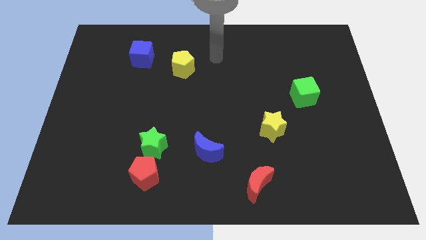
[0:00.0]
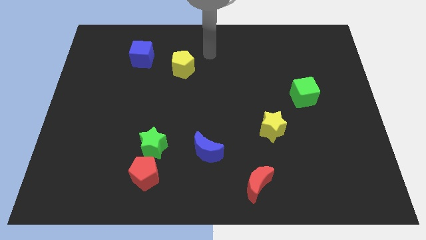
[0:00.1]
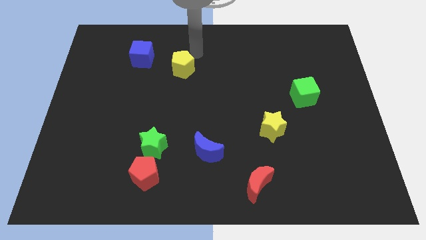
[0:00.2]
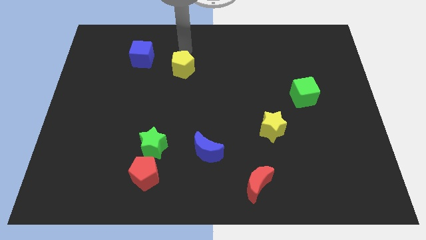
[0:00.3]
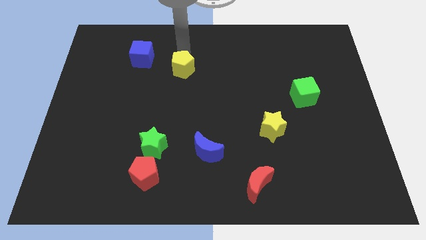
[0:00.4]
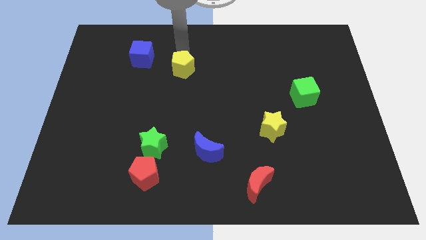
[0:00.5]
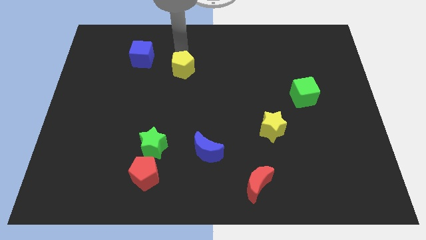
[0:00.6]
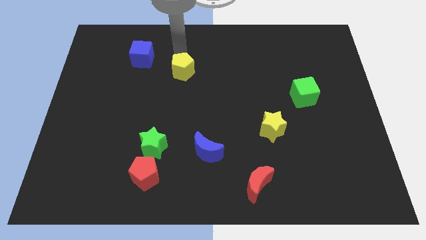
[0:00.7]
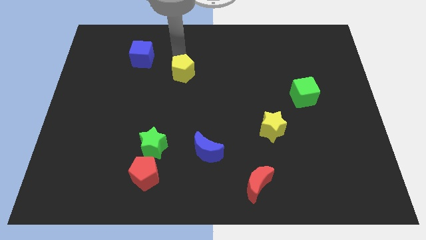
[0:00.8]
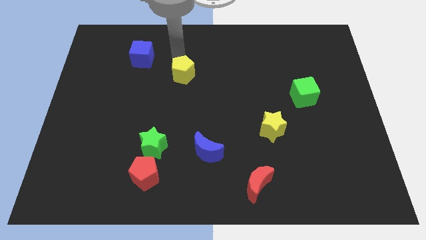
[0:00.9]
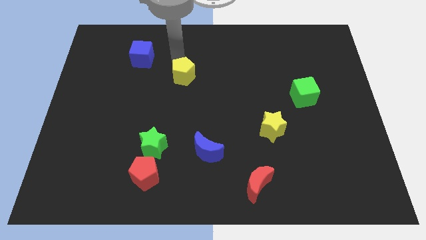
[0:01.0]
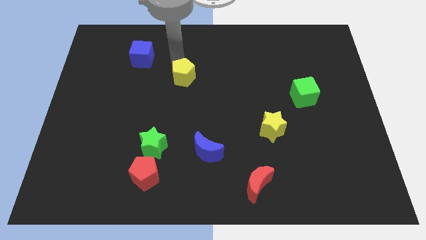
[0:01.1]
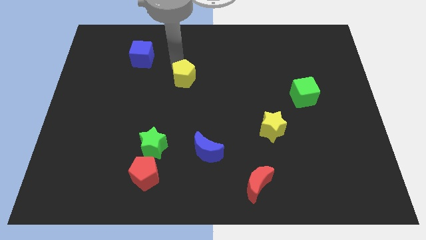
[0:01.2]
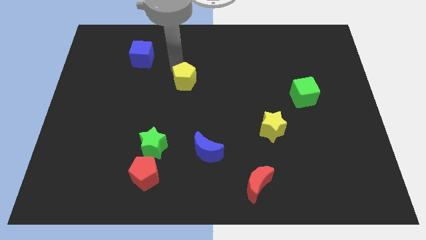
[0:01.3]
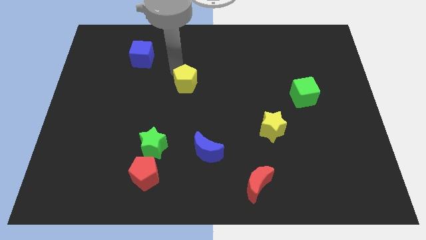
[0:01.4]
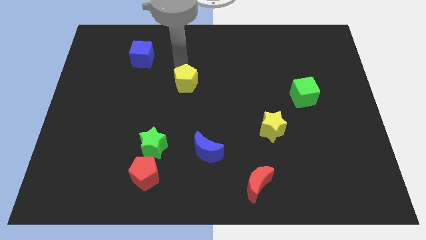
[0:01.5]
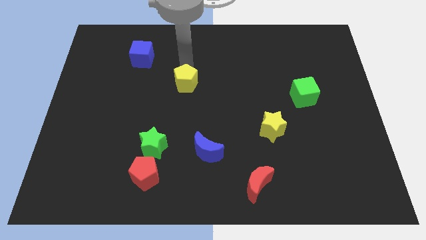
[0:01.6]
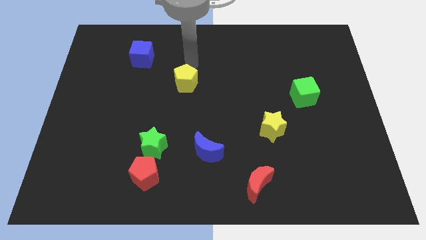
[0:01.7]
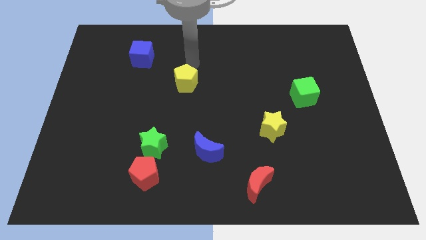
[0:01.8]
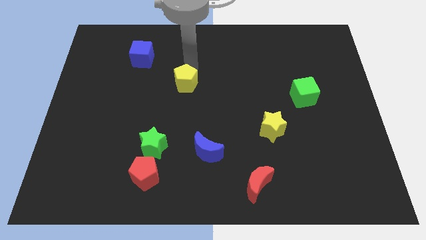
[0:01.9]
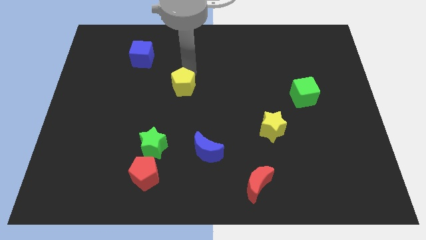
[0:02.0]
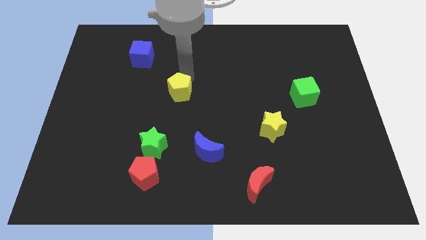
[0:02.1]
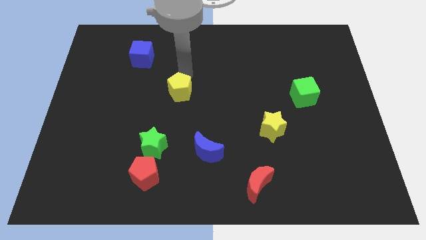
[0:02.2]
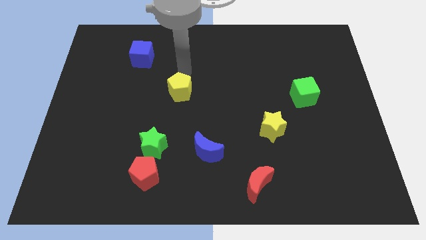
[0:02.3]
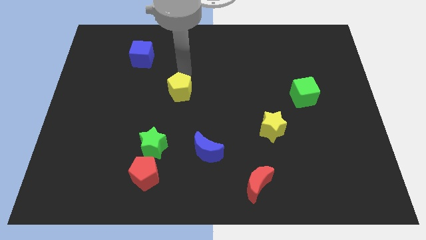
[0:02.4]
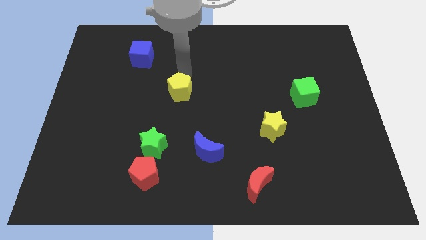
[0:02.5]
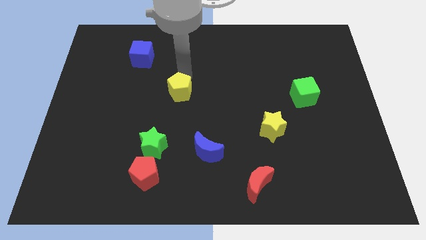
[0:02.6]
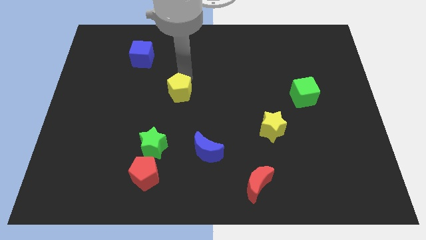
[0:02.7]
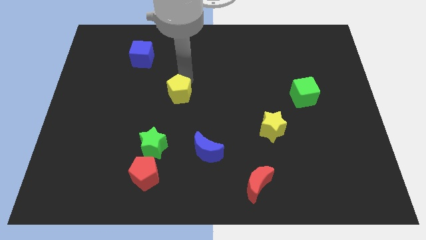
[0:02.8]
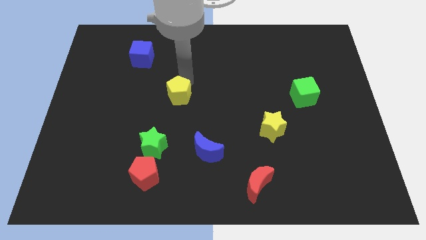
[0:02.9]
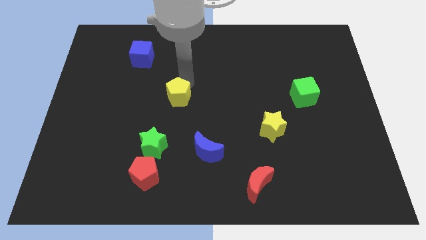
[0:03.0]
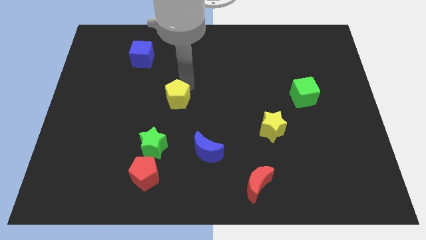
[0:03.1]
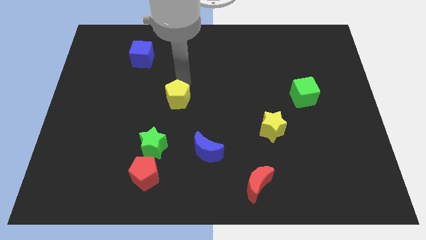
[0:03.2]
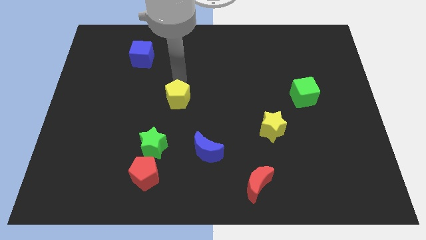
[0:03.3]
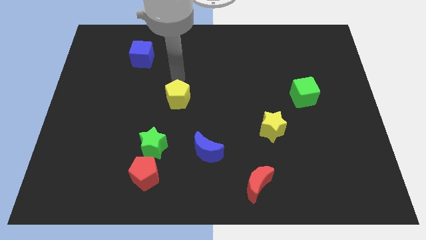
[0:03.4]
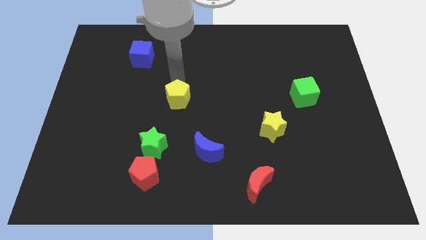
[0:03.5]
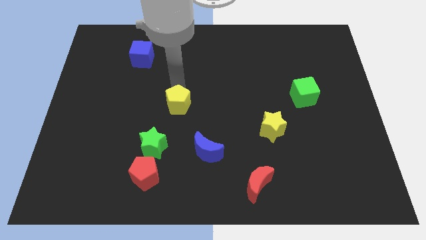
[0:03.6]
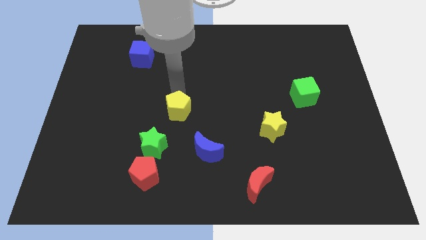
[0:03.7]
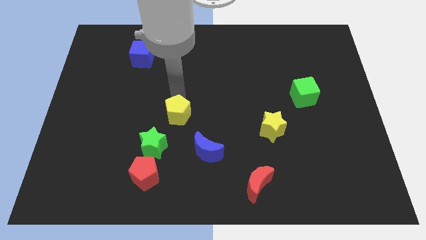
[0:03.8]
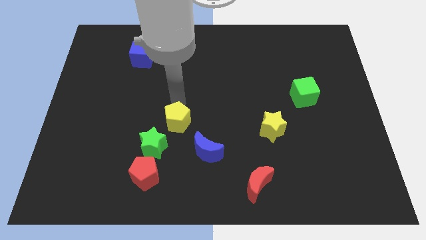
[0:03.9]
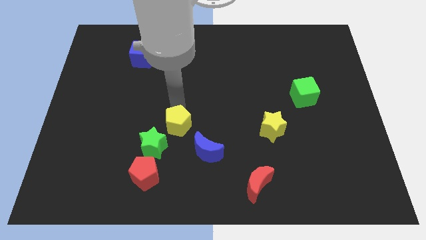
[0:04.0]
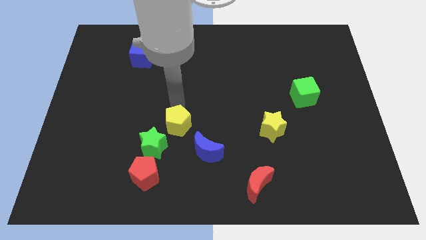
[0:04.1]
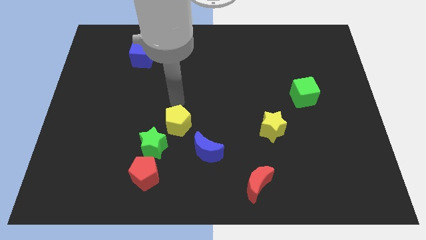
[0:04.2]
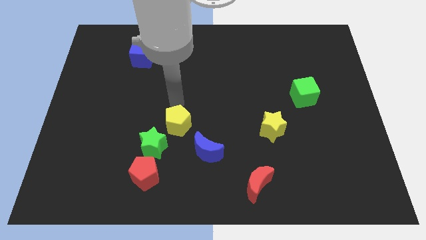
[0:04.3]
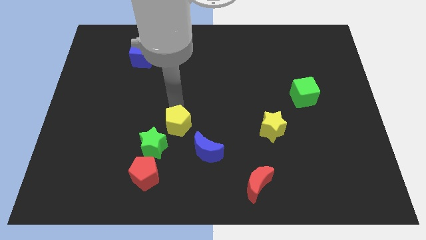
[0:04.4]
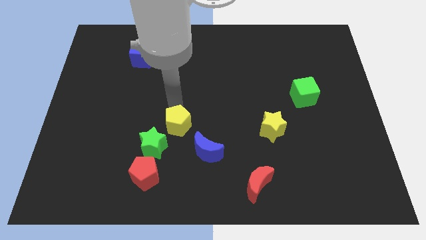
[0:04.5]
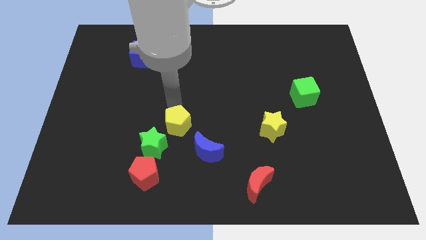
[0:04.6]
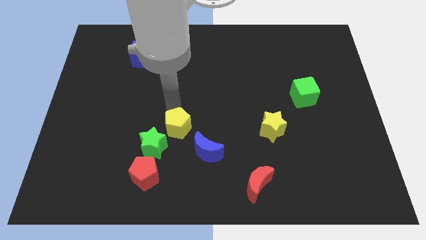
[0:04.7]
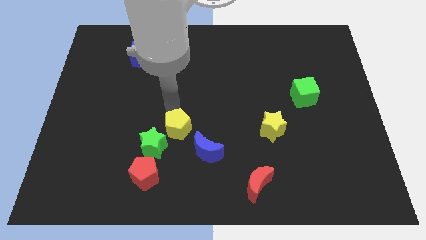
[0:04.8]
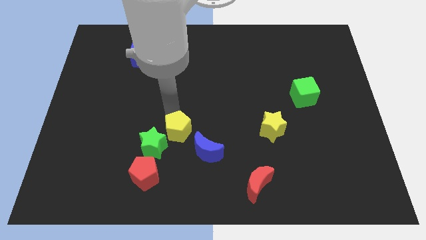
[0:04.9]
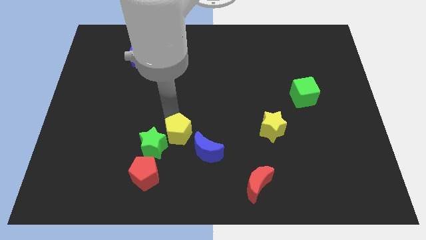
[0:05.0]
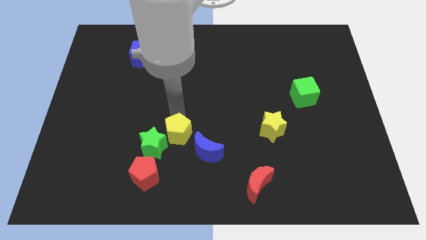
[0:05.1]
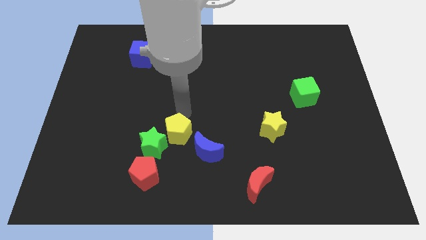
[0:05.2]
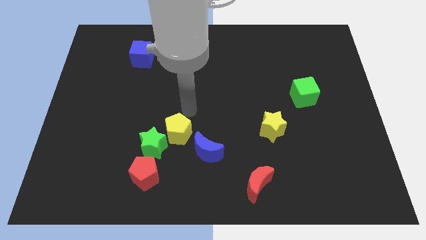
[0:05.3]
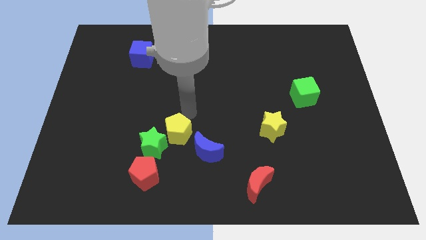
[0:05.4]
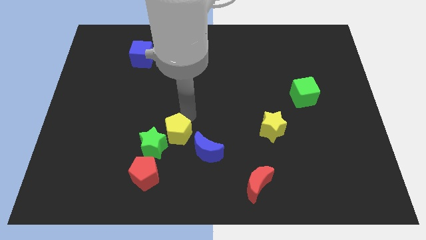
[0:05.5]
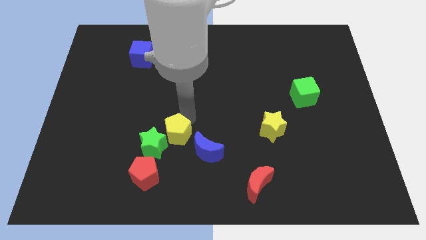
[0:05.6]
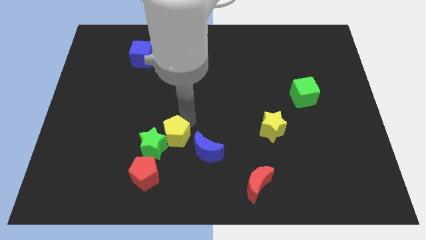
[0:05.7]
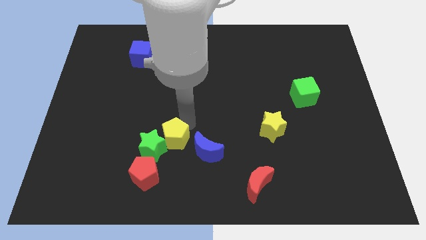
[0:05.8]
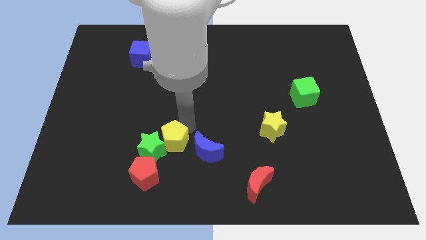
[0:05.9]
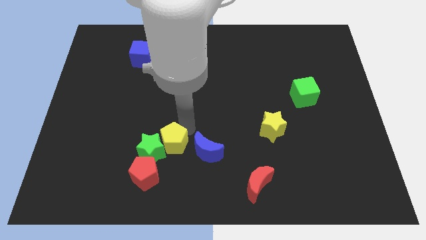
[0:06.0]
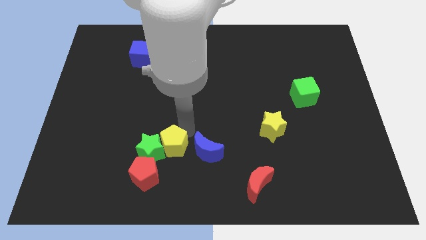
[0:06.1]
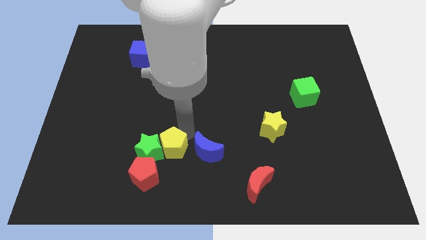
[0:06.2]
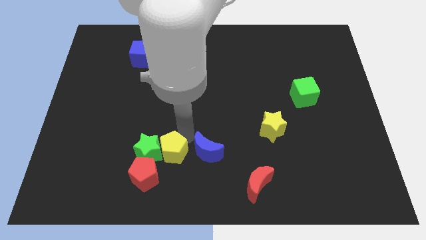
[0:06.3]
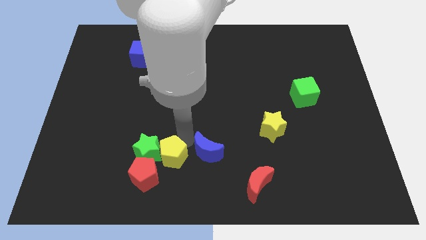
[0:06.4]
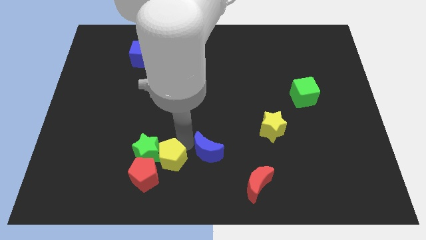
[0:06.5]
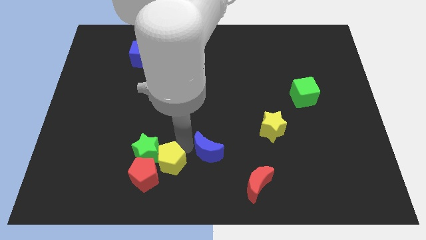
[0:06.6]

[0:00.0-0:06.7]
slide the yellow pentagon towards the red pentagon

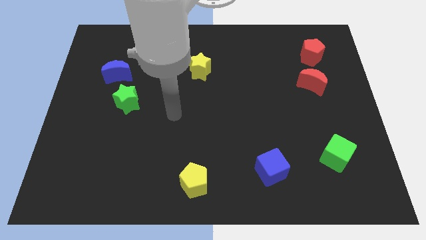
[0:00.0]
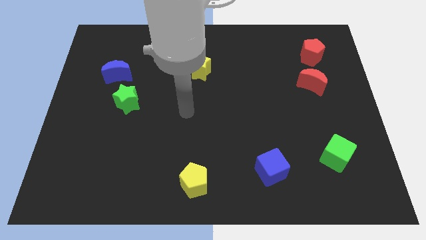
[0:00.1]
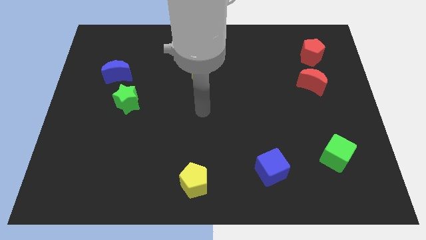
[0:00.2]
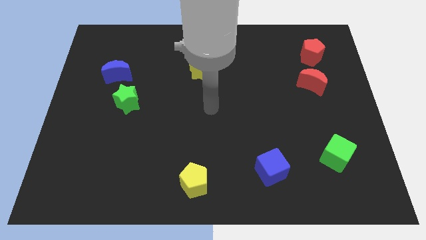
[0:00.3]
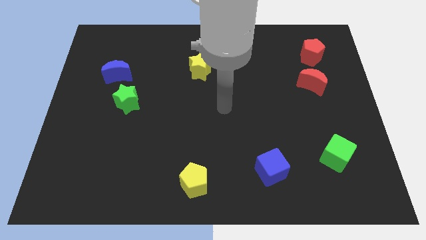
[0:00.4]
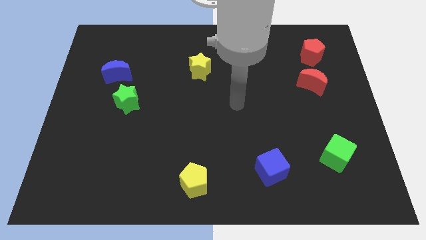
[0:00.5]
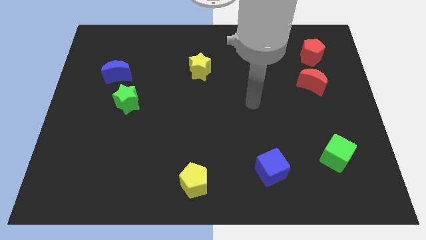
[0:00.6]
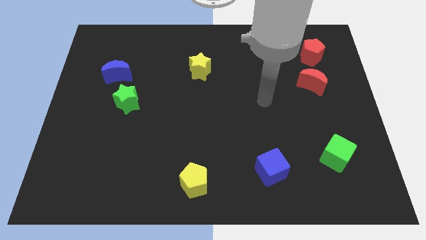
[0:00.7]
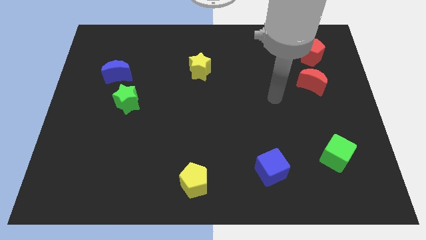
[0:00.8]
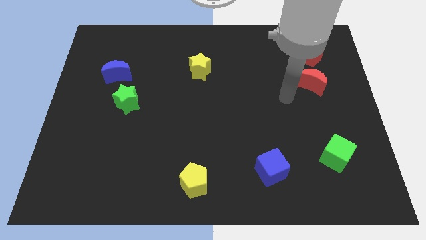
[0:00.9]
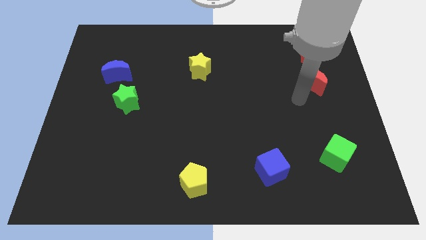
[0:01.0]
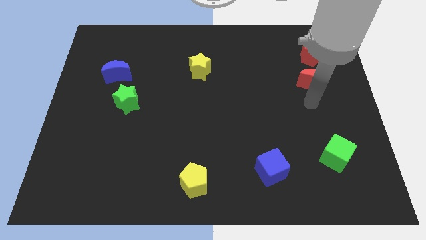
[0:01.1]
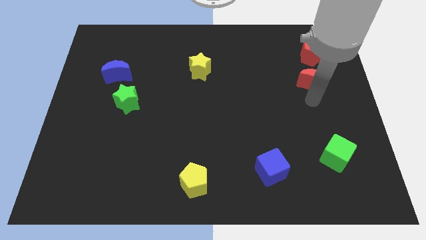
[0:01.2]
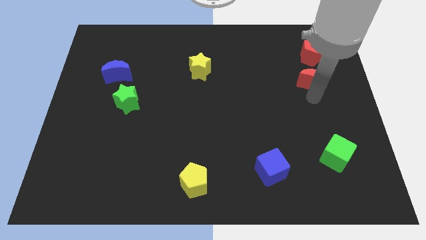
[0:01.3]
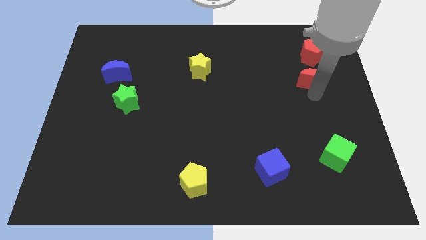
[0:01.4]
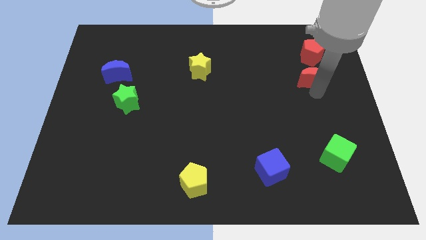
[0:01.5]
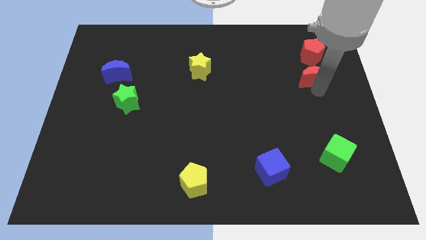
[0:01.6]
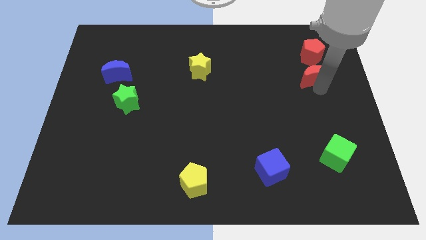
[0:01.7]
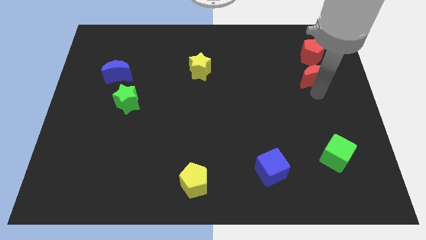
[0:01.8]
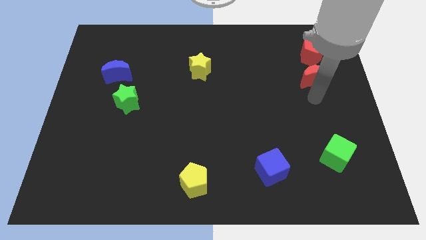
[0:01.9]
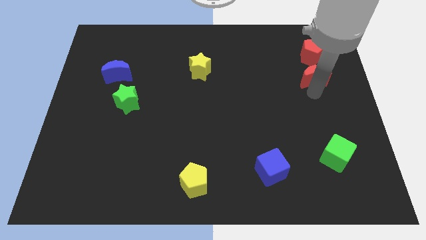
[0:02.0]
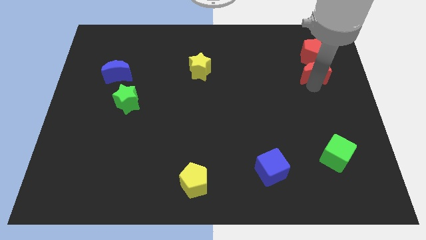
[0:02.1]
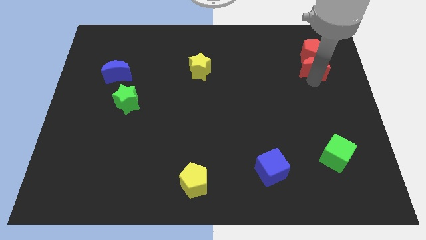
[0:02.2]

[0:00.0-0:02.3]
slide the red moon close to the red pentagon
